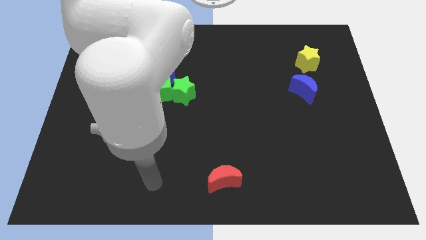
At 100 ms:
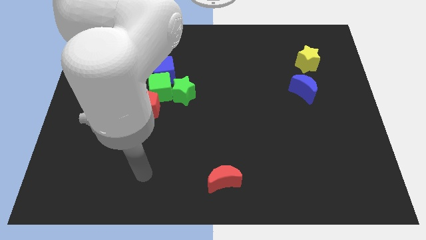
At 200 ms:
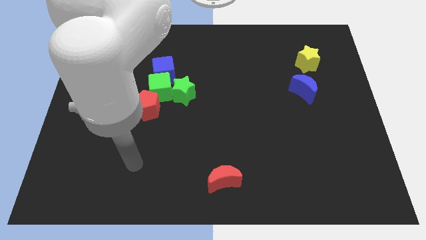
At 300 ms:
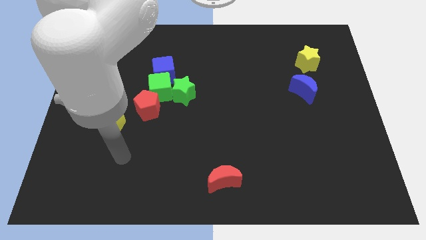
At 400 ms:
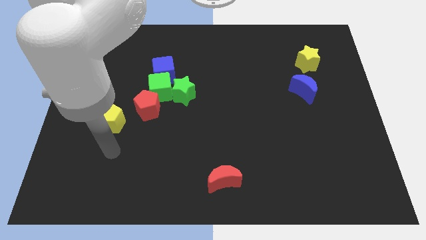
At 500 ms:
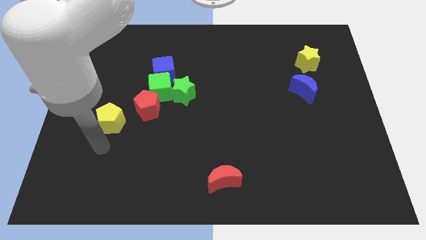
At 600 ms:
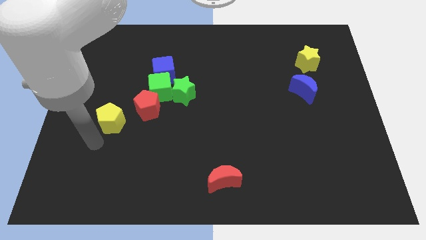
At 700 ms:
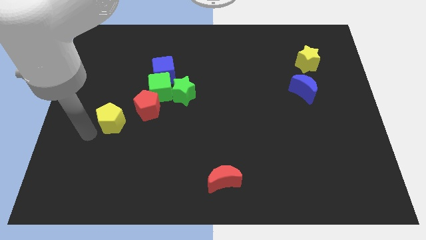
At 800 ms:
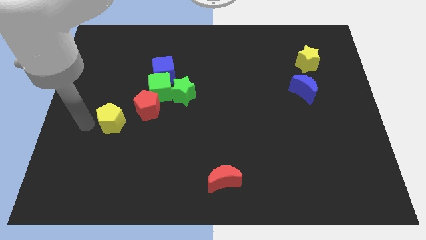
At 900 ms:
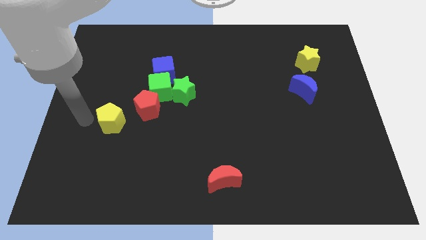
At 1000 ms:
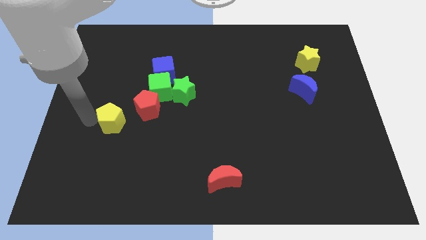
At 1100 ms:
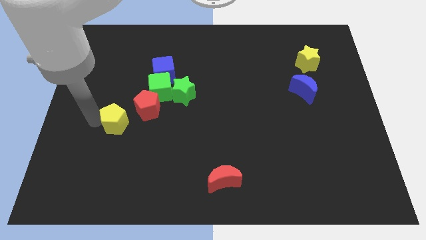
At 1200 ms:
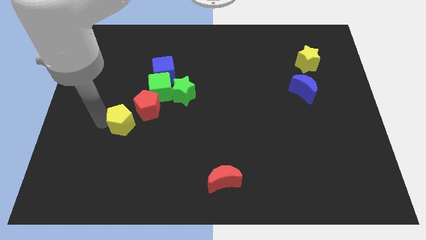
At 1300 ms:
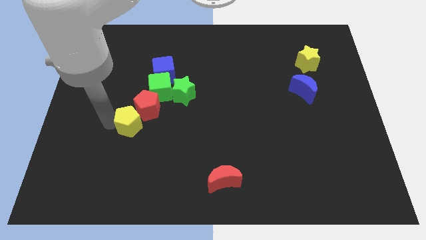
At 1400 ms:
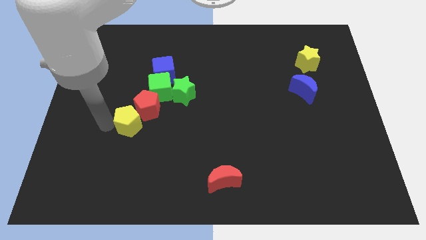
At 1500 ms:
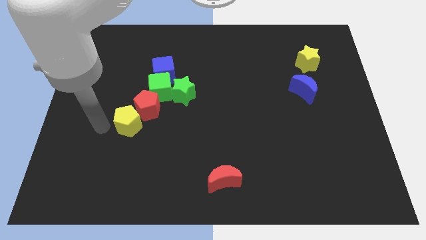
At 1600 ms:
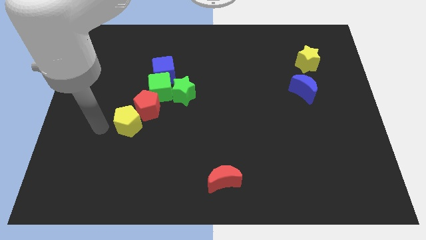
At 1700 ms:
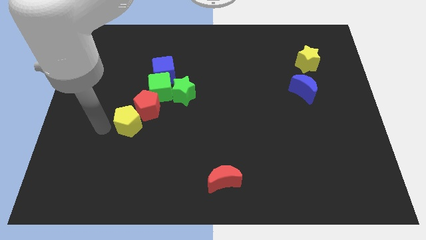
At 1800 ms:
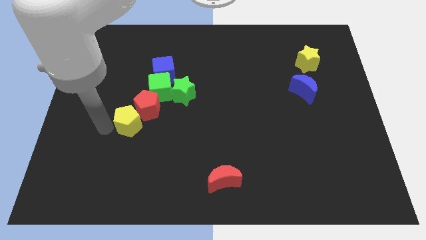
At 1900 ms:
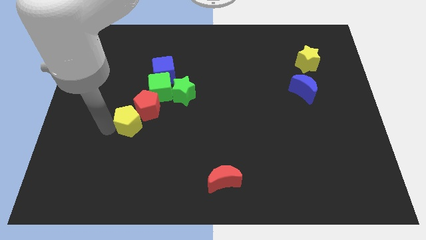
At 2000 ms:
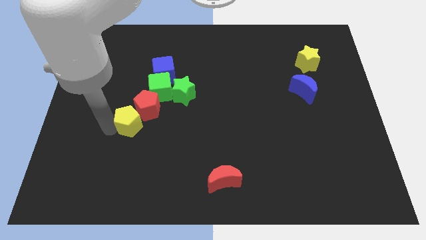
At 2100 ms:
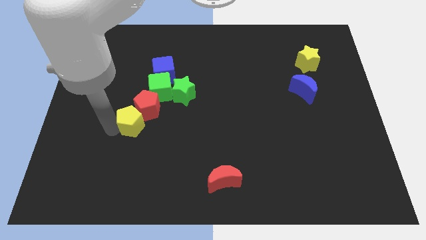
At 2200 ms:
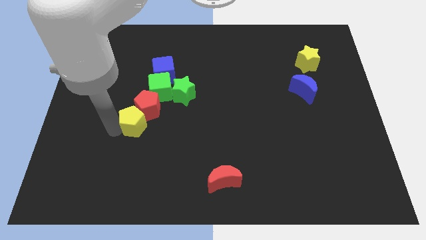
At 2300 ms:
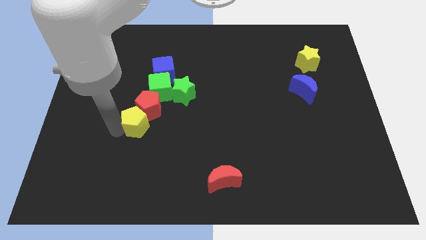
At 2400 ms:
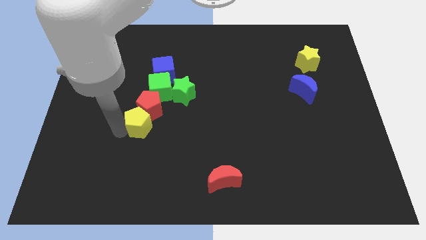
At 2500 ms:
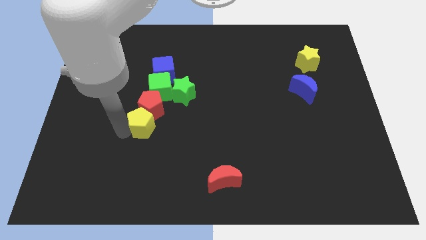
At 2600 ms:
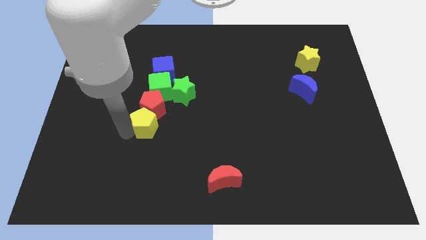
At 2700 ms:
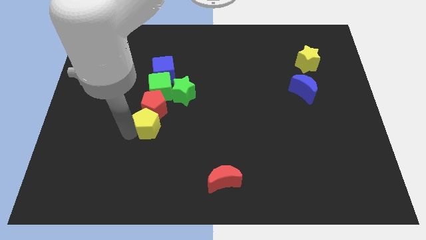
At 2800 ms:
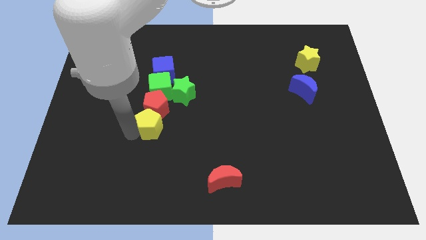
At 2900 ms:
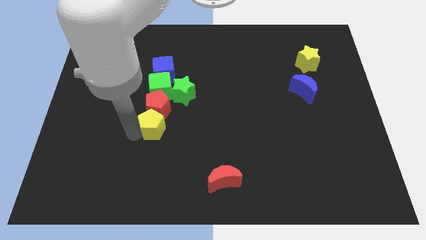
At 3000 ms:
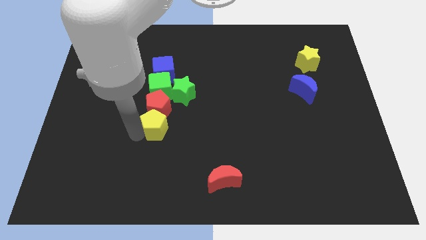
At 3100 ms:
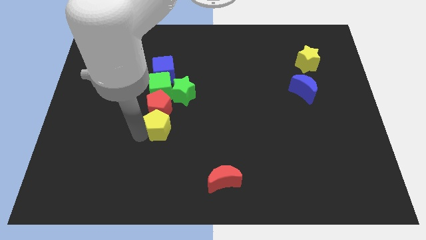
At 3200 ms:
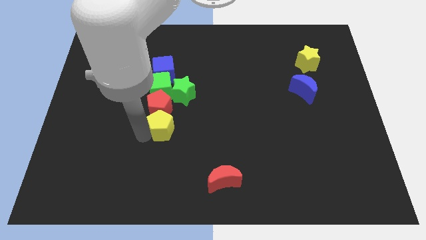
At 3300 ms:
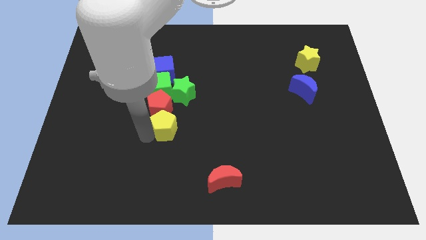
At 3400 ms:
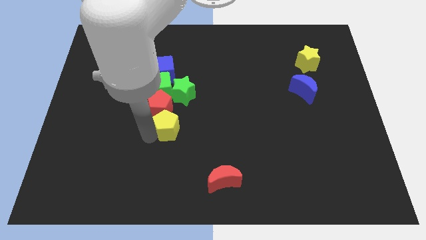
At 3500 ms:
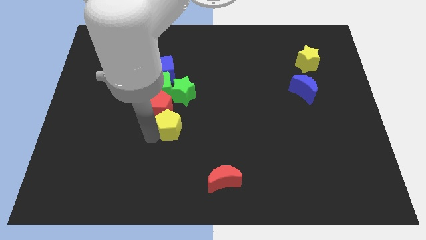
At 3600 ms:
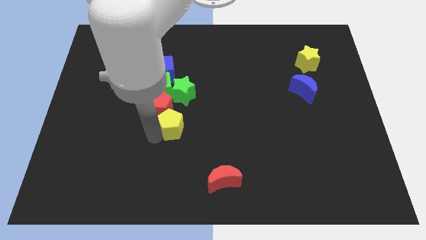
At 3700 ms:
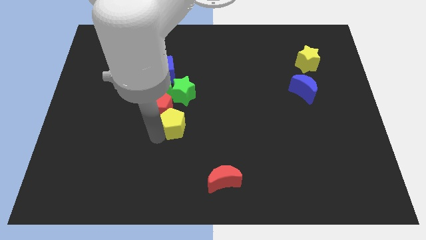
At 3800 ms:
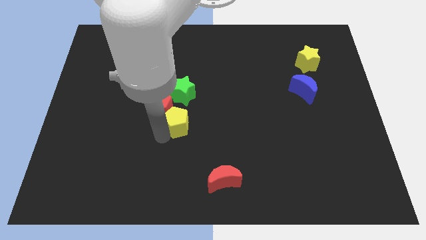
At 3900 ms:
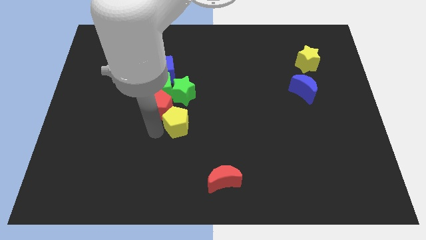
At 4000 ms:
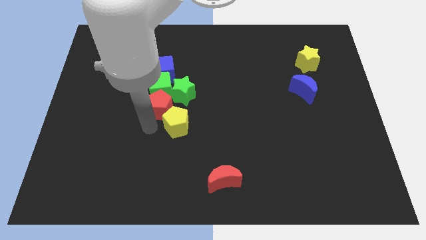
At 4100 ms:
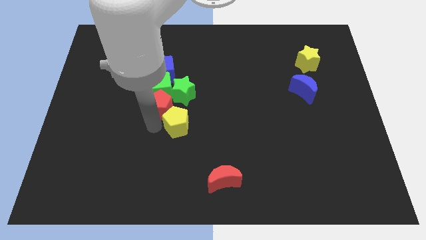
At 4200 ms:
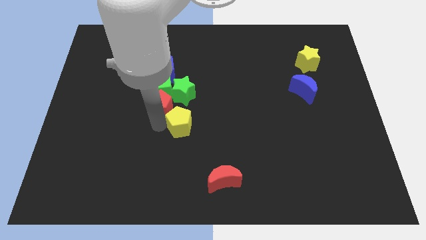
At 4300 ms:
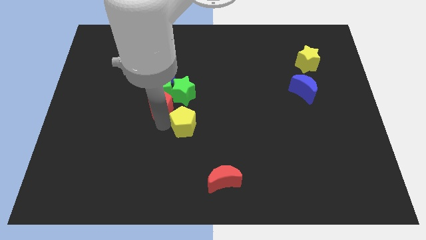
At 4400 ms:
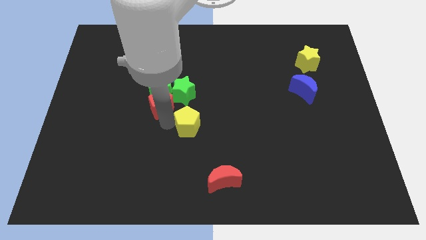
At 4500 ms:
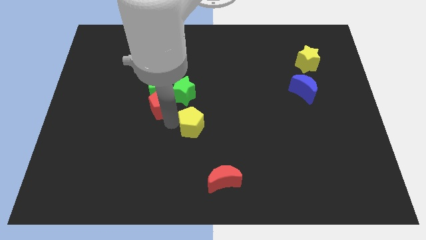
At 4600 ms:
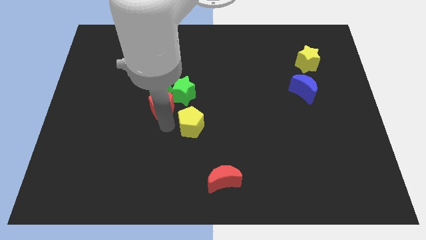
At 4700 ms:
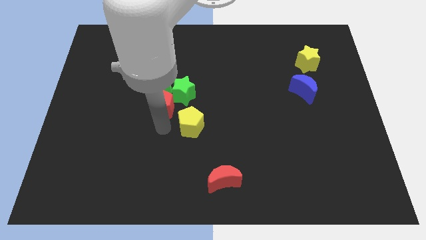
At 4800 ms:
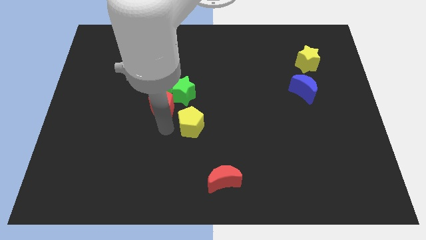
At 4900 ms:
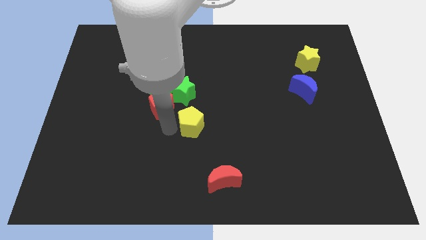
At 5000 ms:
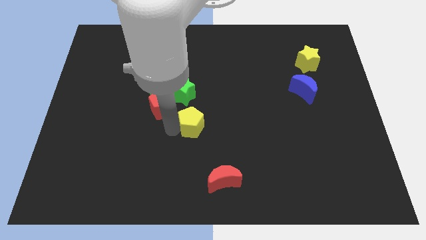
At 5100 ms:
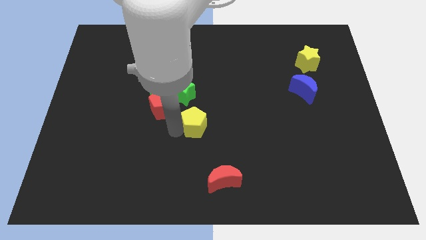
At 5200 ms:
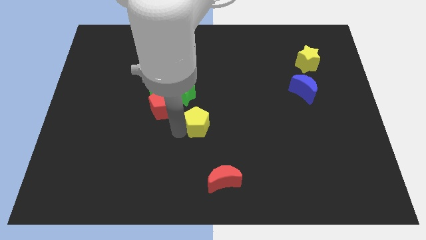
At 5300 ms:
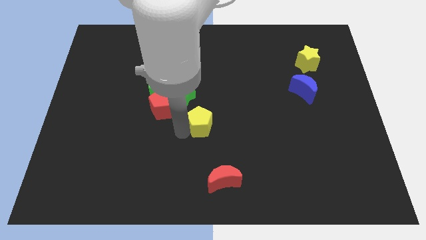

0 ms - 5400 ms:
slide the yellow pentagon right

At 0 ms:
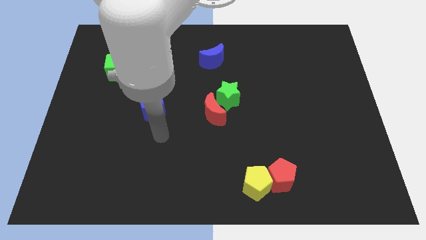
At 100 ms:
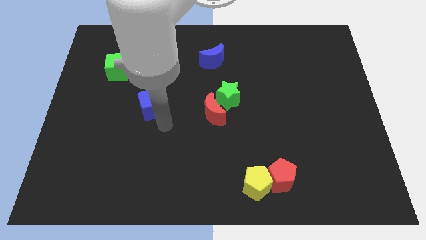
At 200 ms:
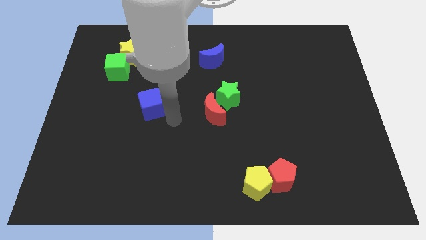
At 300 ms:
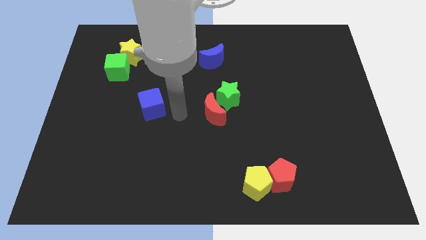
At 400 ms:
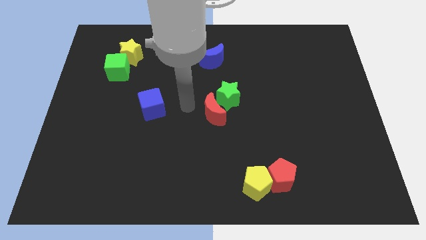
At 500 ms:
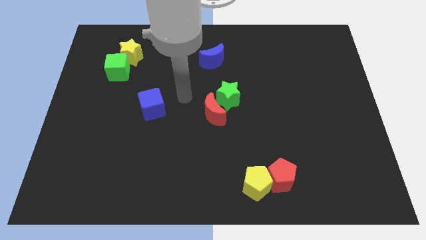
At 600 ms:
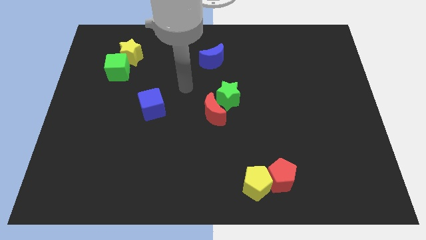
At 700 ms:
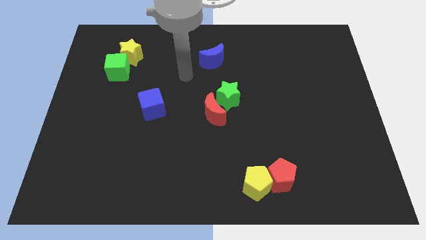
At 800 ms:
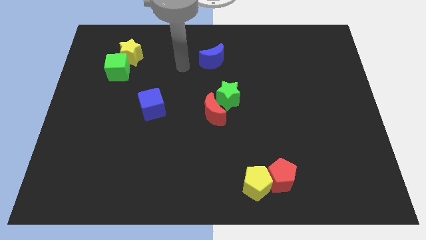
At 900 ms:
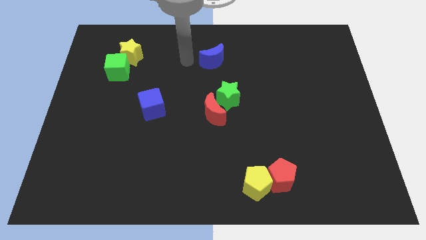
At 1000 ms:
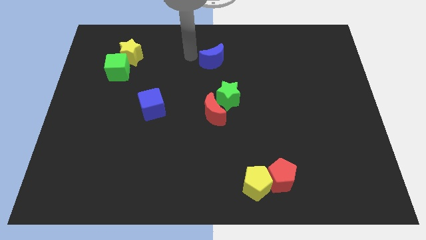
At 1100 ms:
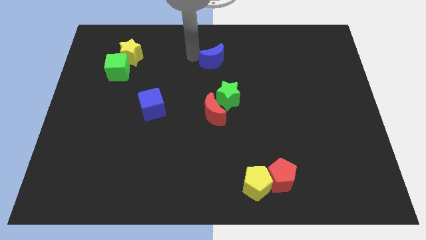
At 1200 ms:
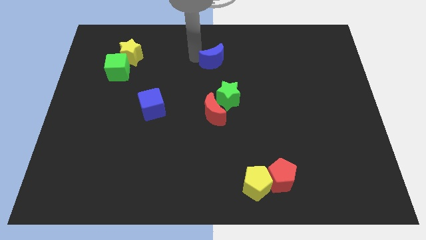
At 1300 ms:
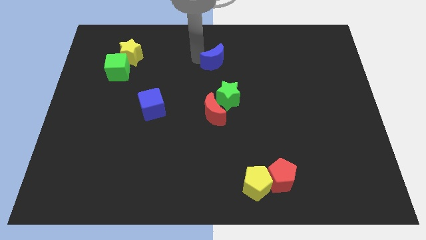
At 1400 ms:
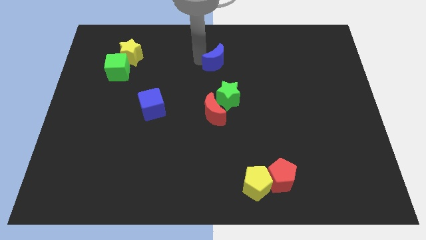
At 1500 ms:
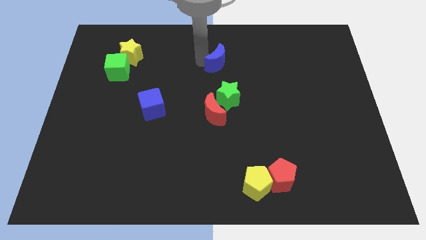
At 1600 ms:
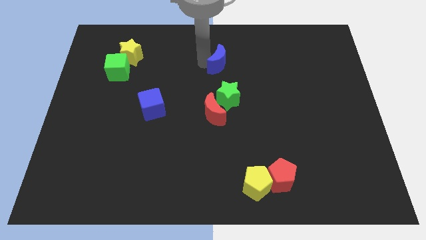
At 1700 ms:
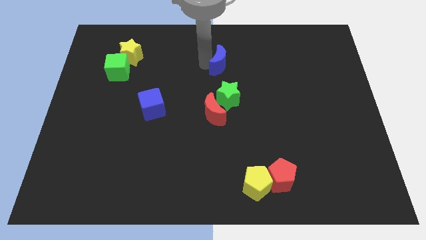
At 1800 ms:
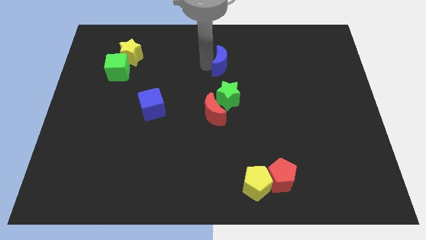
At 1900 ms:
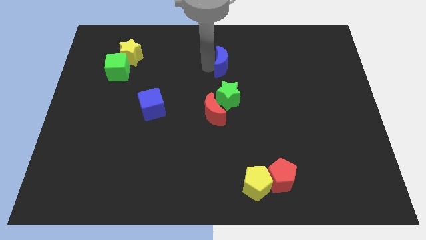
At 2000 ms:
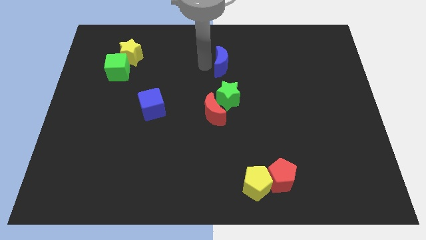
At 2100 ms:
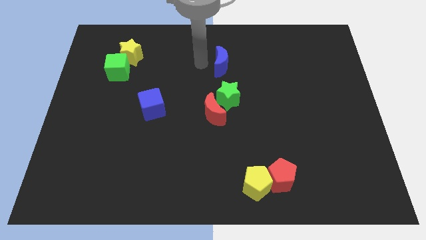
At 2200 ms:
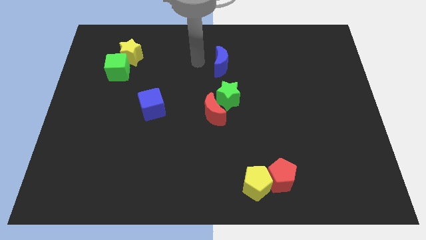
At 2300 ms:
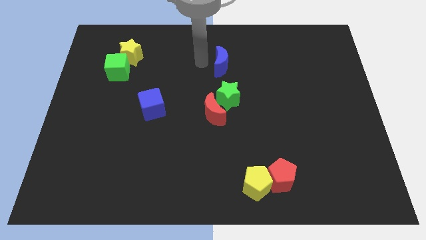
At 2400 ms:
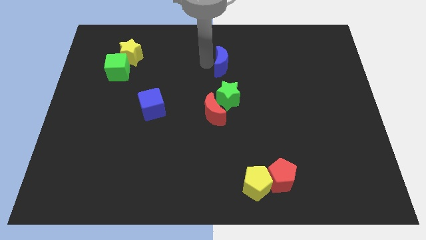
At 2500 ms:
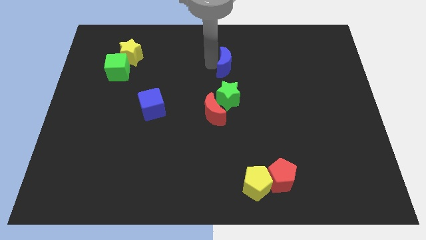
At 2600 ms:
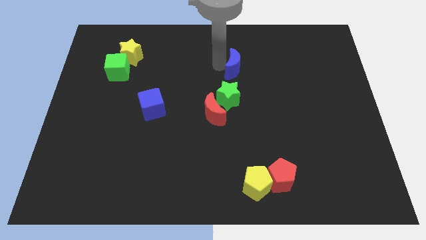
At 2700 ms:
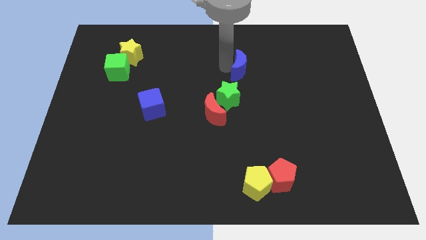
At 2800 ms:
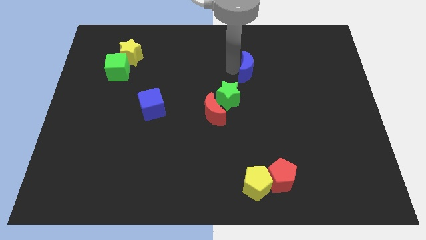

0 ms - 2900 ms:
push the blue moon a bit right
